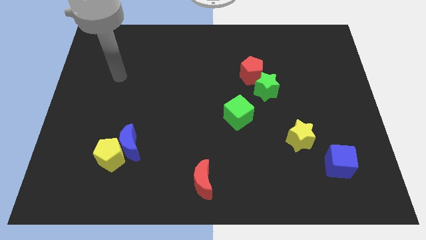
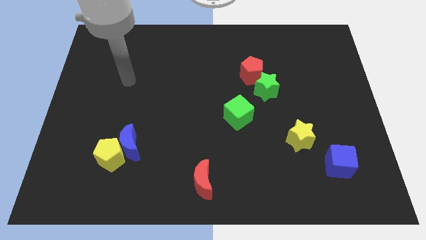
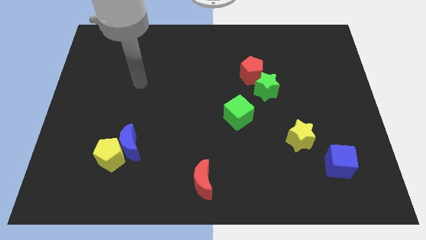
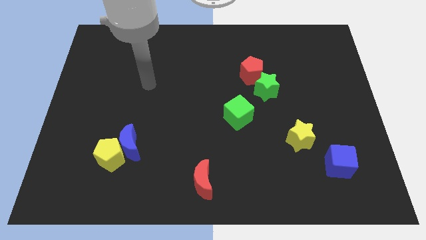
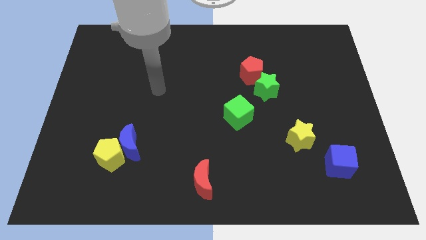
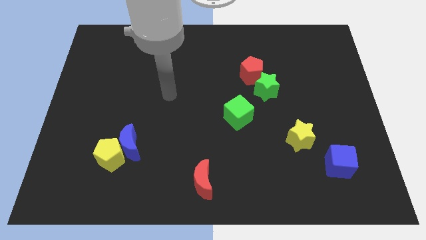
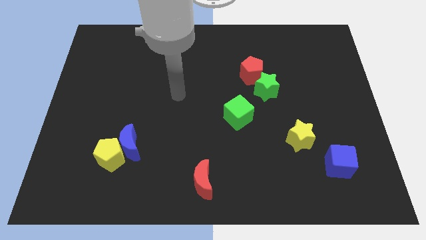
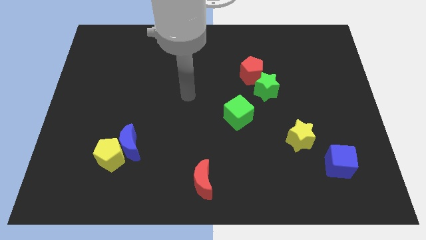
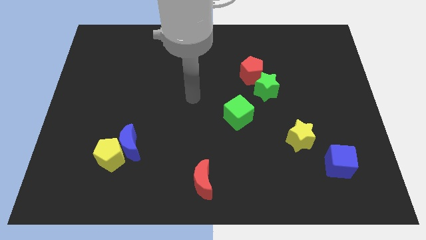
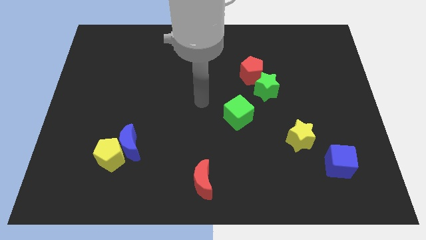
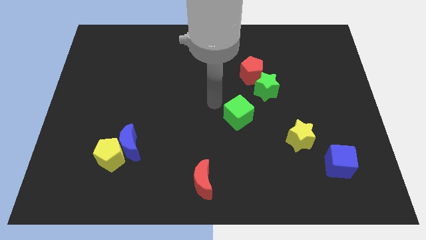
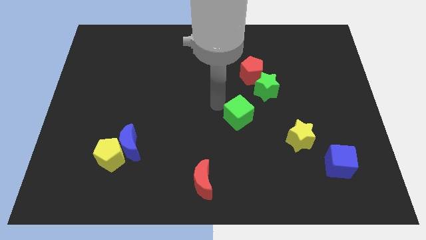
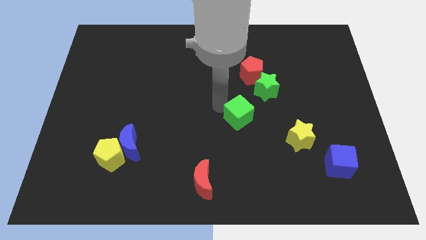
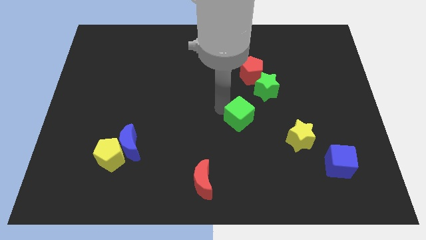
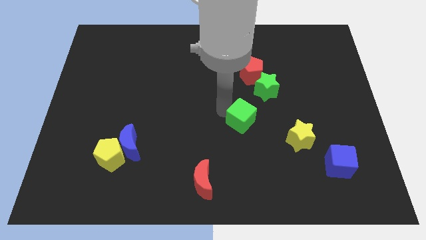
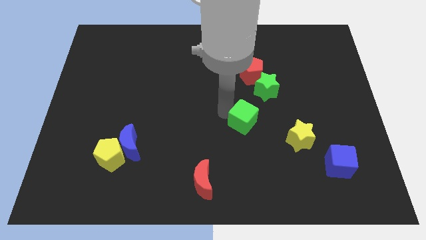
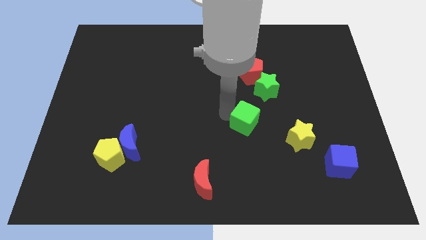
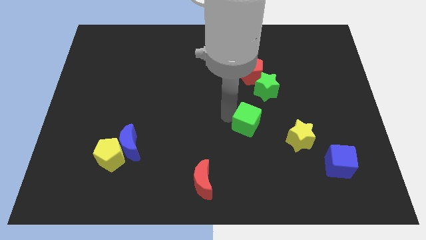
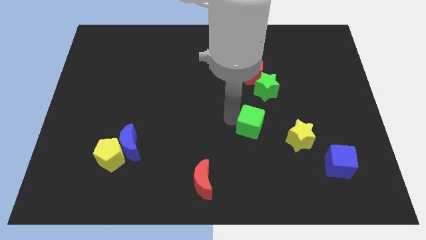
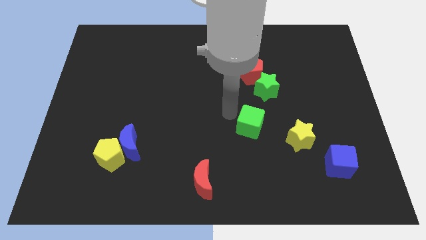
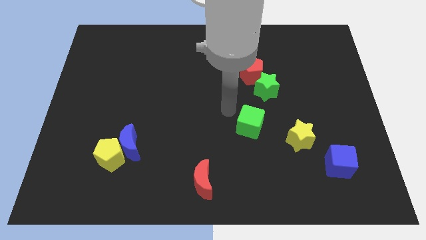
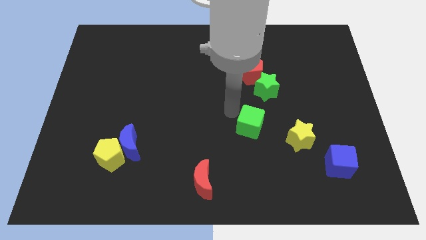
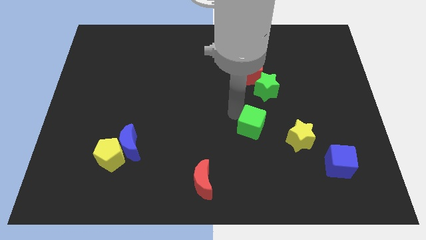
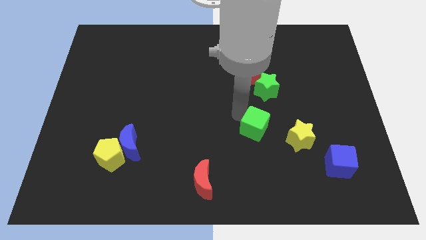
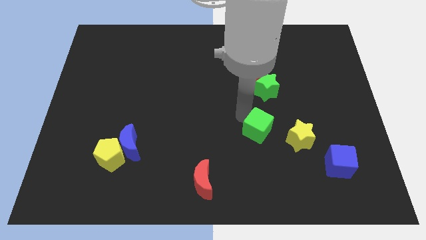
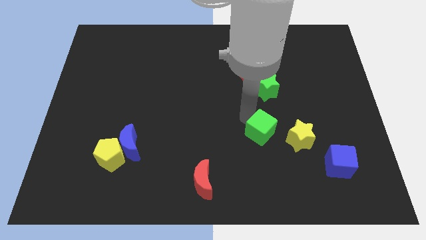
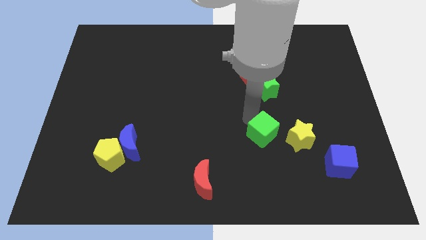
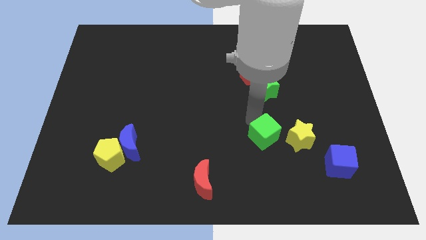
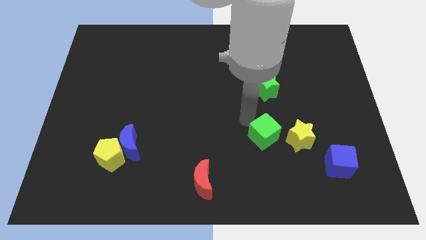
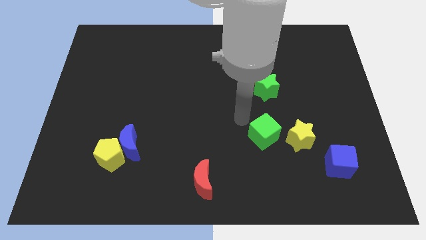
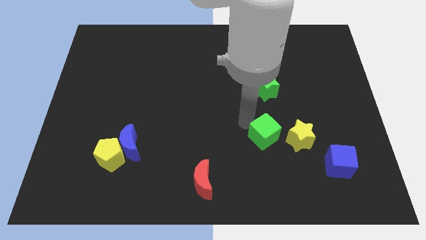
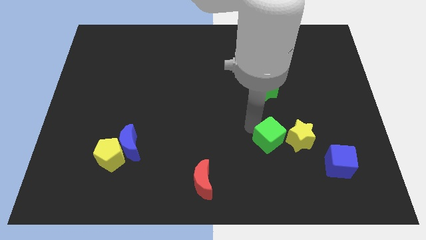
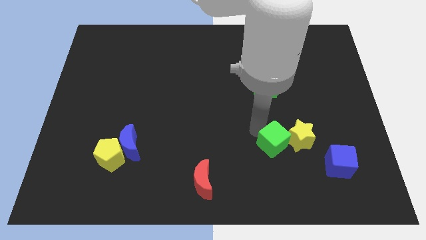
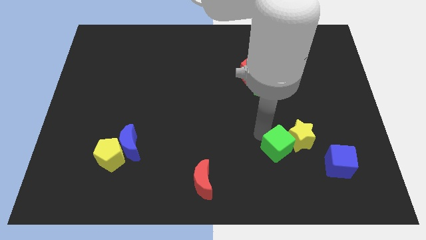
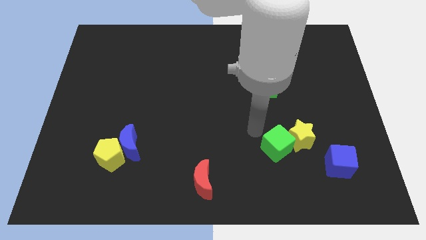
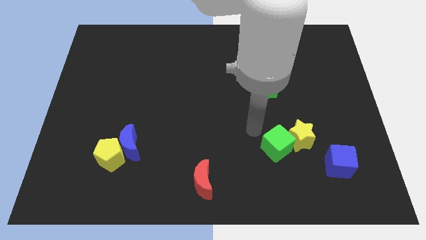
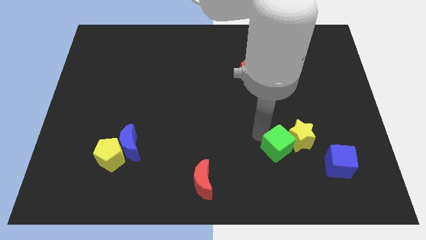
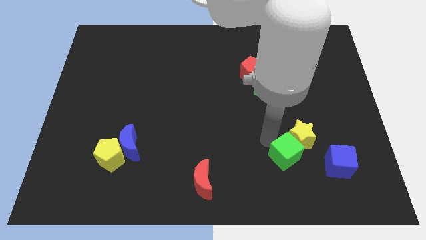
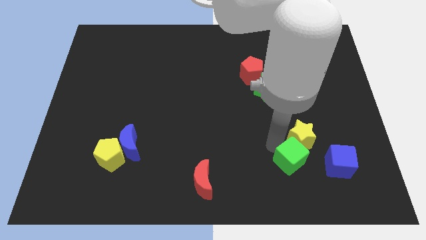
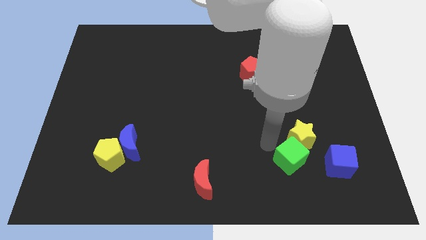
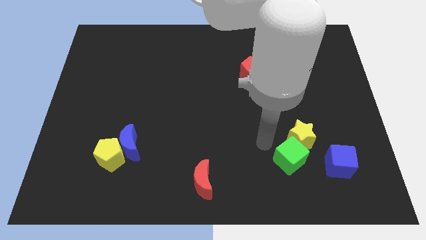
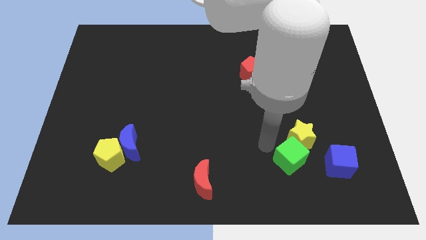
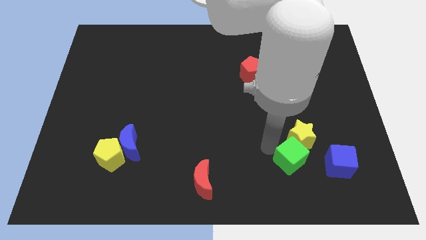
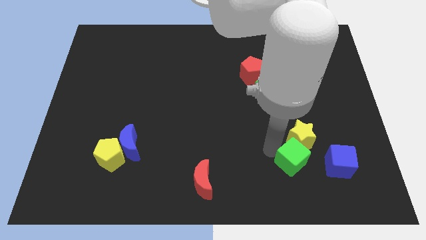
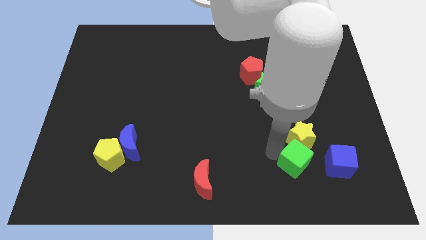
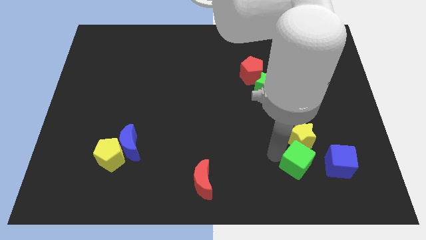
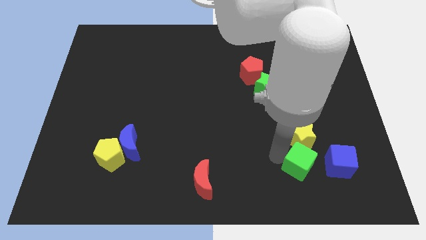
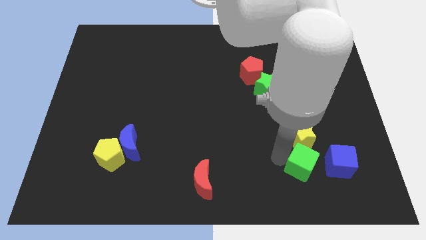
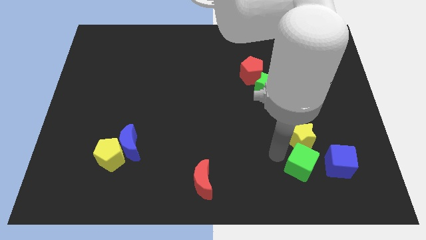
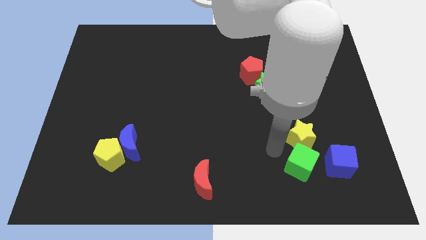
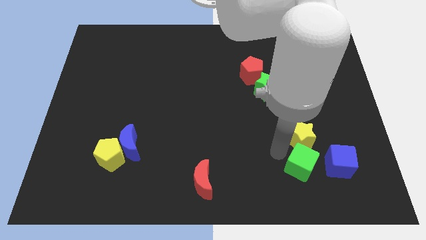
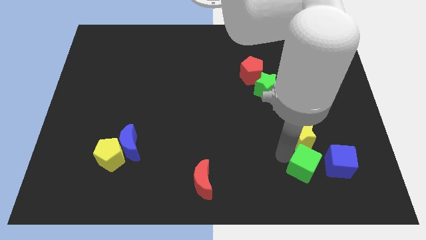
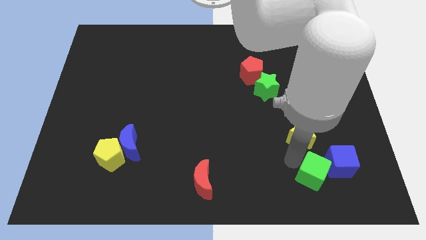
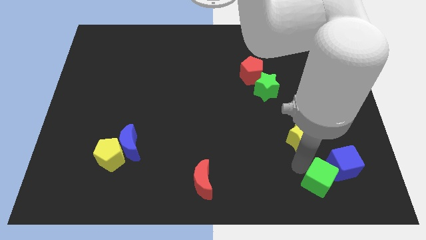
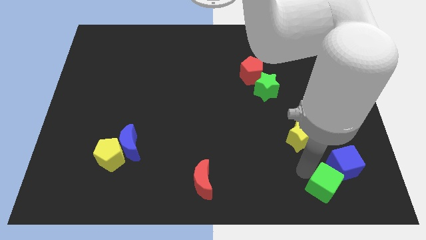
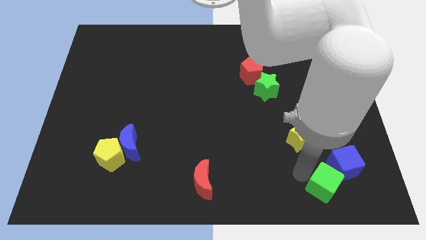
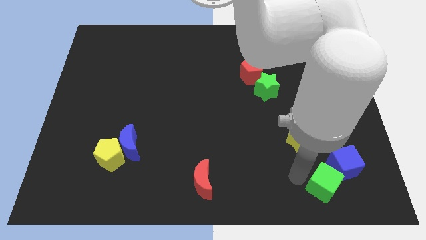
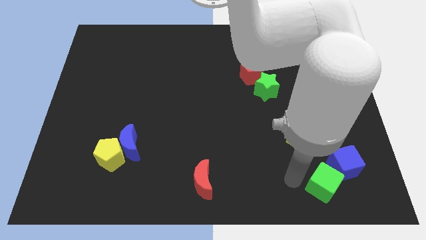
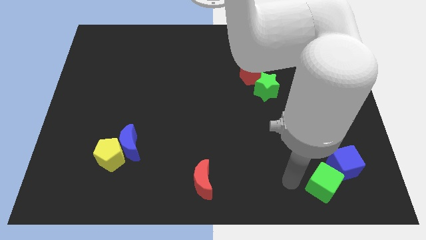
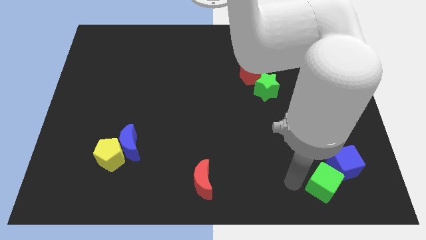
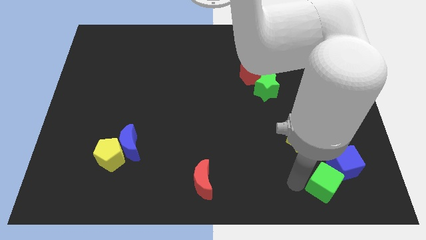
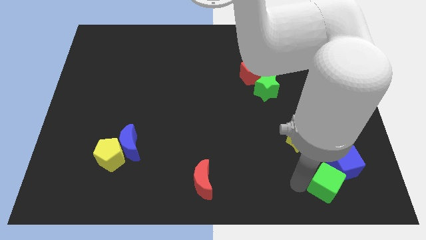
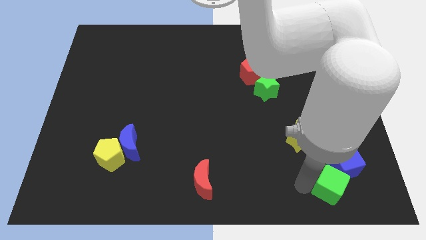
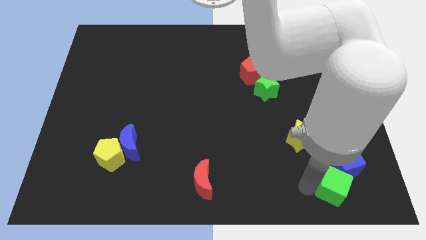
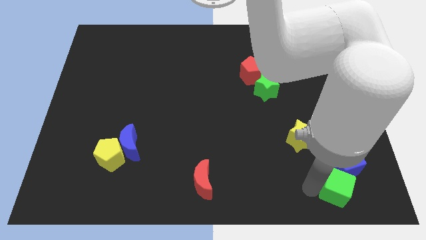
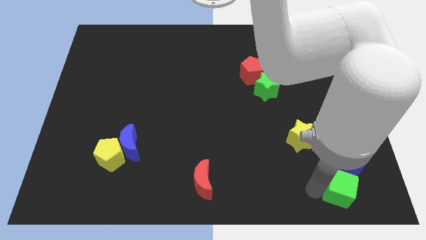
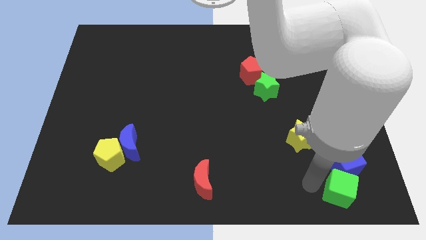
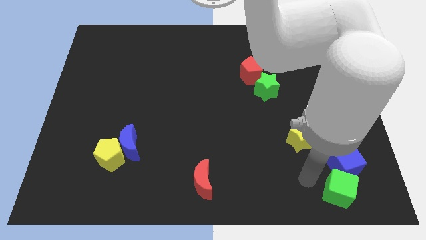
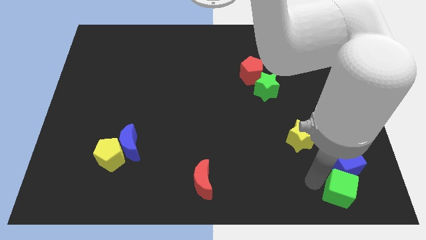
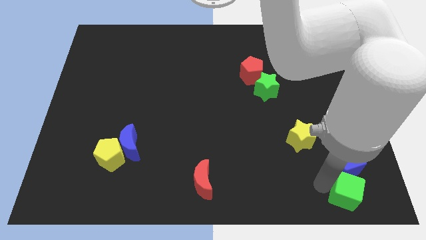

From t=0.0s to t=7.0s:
put the green cube to the bottom right
